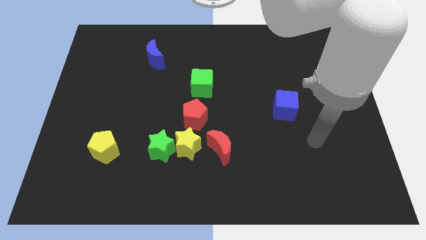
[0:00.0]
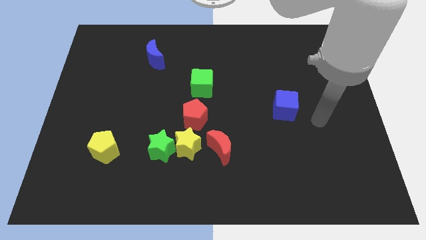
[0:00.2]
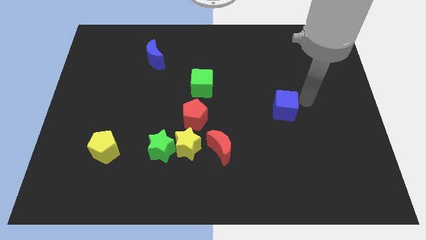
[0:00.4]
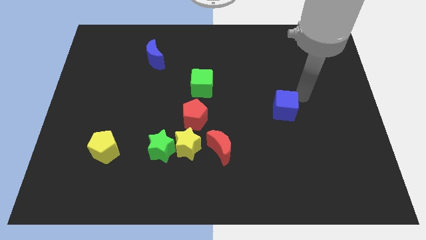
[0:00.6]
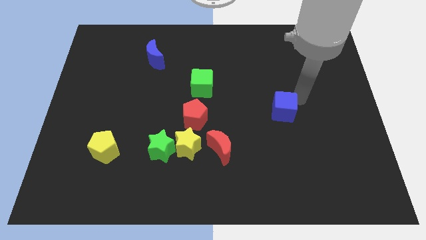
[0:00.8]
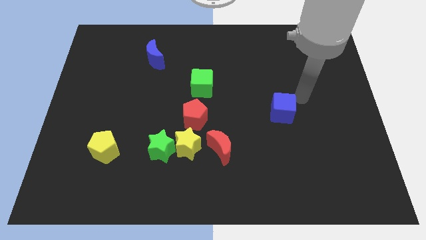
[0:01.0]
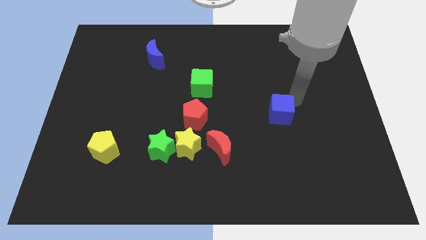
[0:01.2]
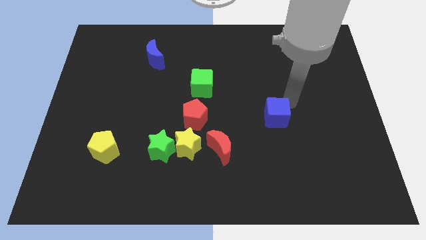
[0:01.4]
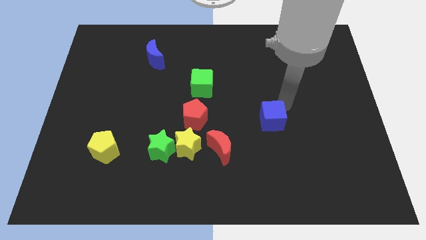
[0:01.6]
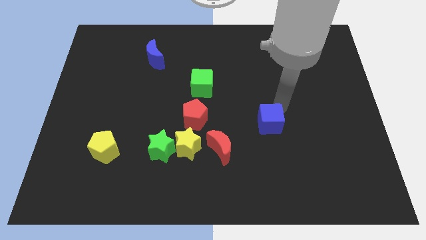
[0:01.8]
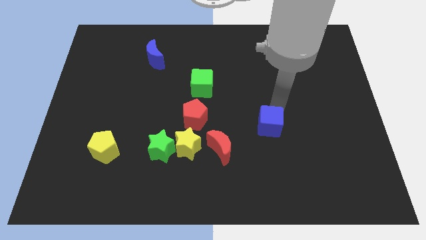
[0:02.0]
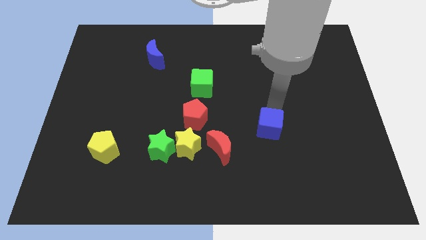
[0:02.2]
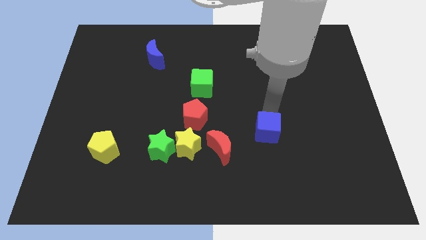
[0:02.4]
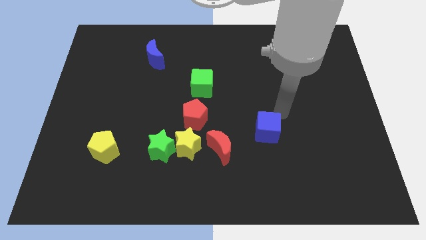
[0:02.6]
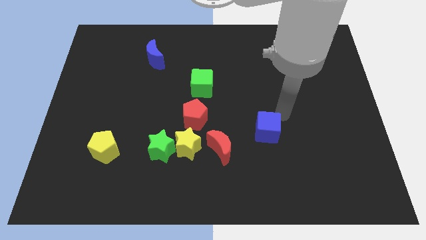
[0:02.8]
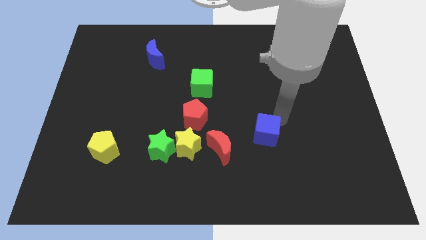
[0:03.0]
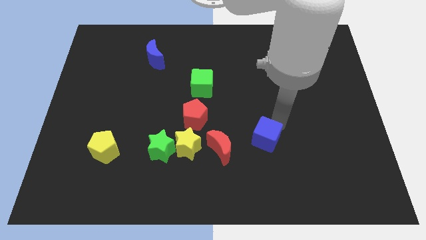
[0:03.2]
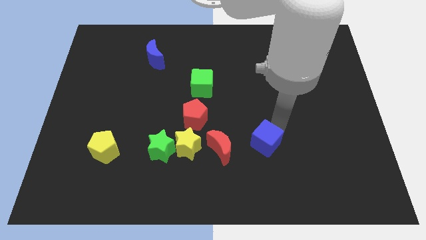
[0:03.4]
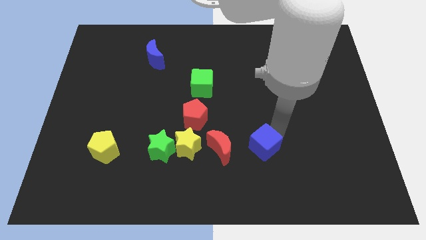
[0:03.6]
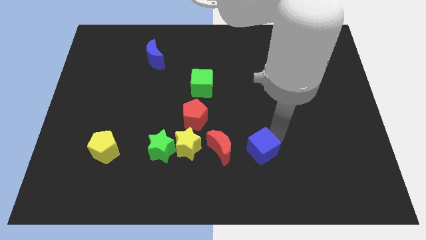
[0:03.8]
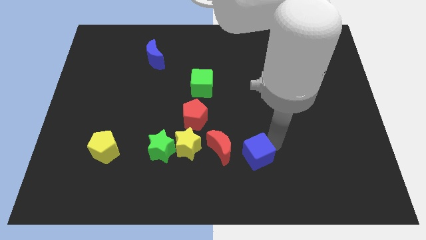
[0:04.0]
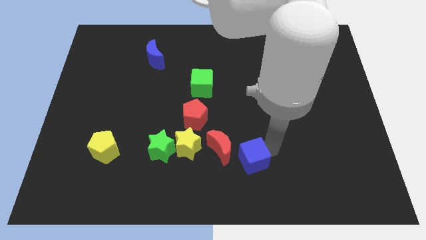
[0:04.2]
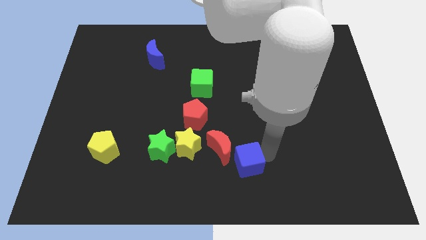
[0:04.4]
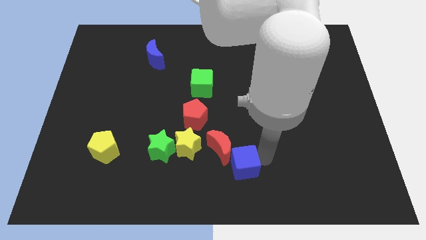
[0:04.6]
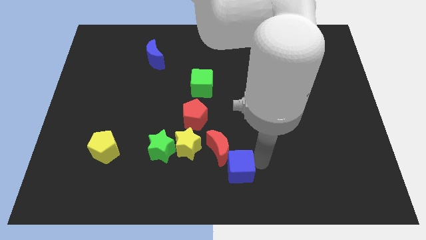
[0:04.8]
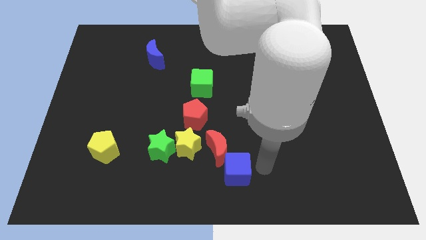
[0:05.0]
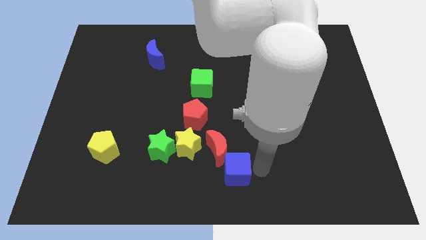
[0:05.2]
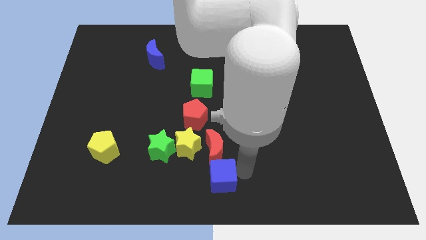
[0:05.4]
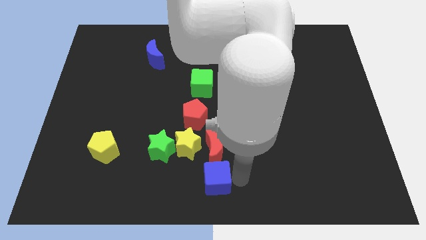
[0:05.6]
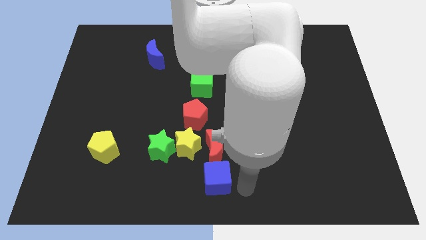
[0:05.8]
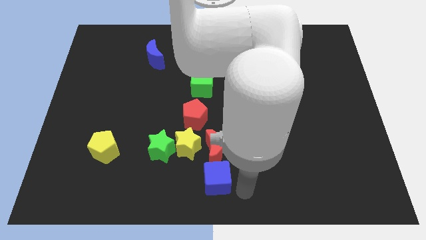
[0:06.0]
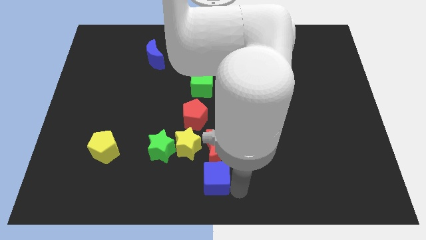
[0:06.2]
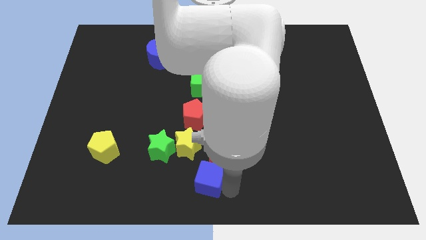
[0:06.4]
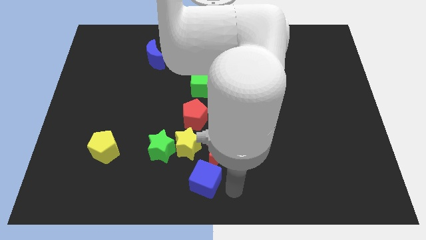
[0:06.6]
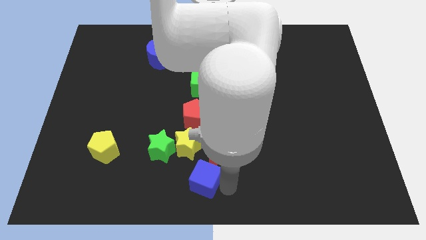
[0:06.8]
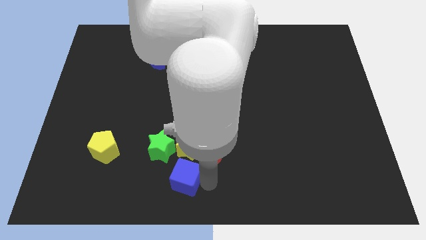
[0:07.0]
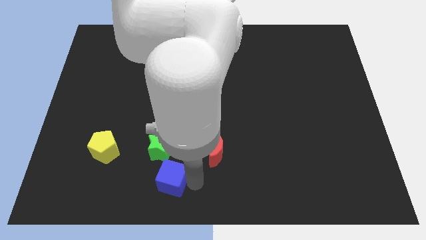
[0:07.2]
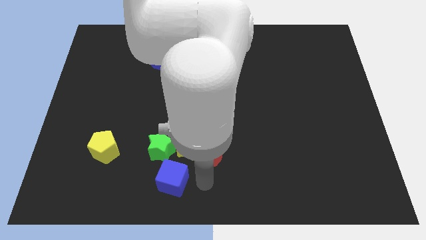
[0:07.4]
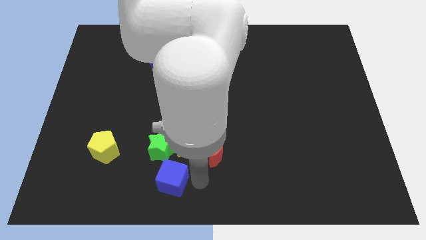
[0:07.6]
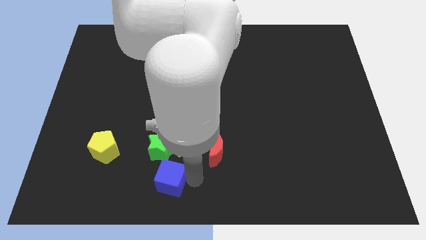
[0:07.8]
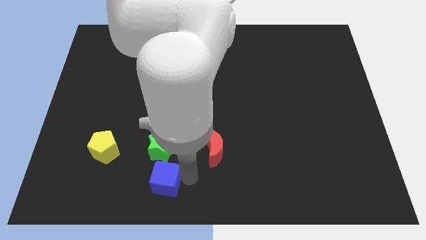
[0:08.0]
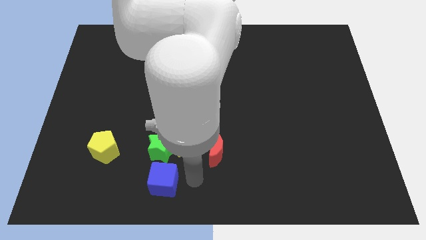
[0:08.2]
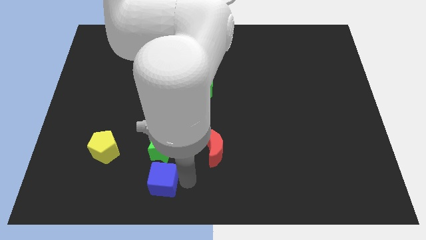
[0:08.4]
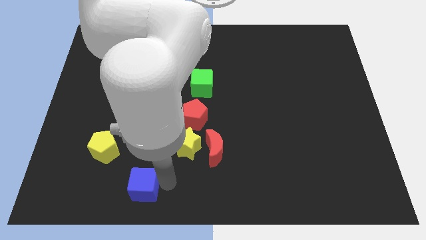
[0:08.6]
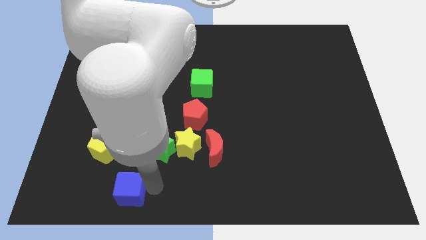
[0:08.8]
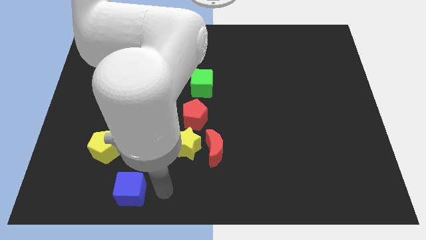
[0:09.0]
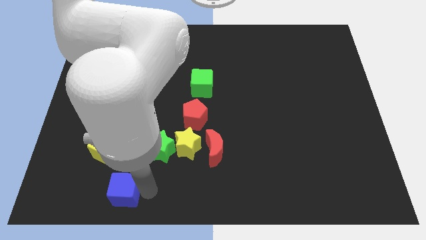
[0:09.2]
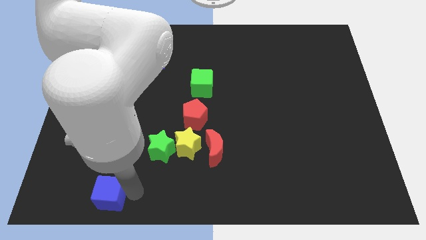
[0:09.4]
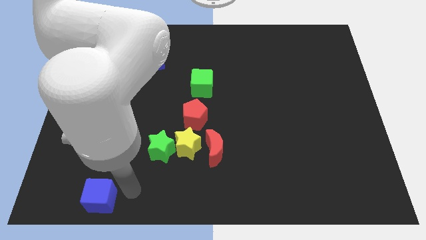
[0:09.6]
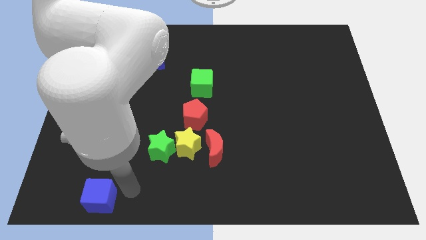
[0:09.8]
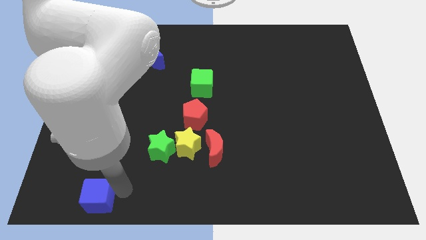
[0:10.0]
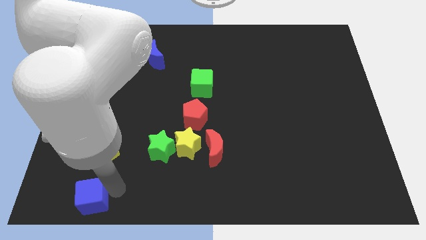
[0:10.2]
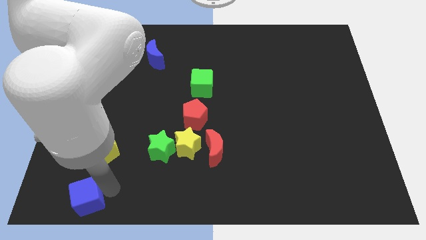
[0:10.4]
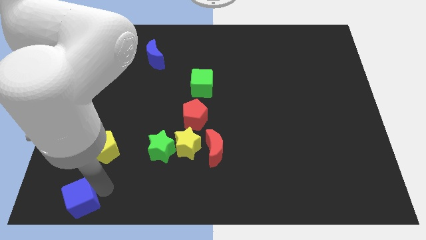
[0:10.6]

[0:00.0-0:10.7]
slide the blue cube to the lower left corner

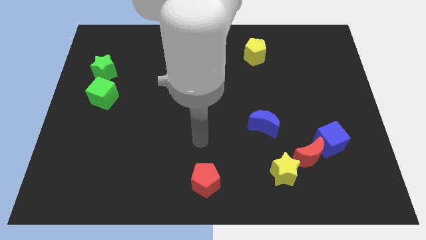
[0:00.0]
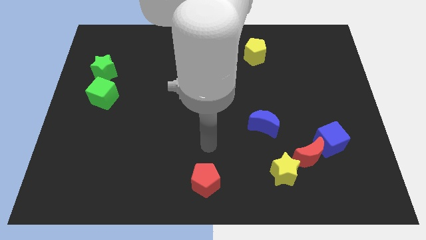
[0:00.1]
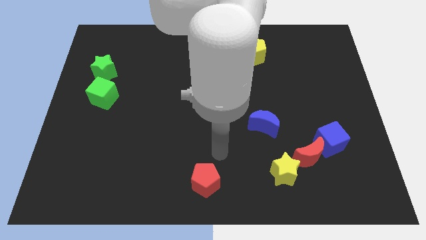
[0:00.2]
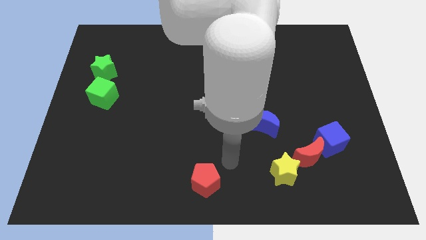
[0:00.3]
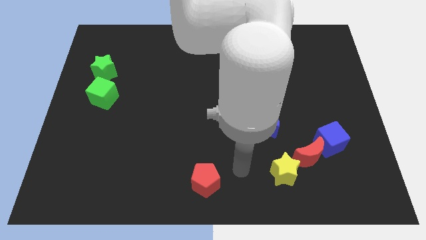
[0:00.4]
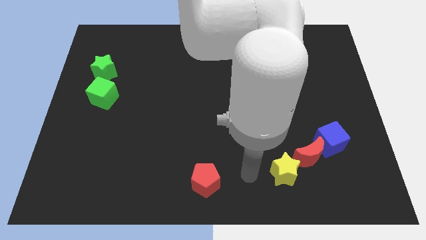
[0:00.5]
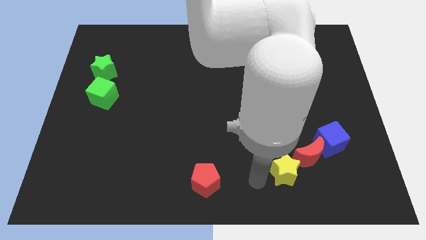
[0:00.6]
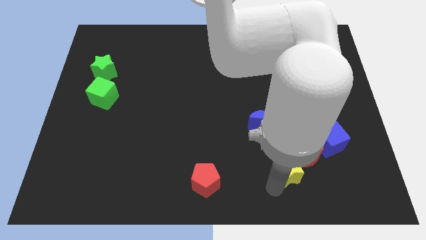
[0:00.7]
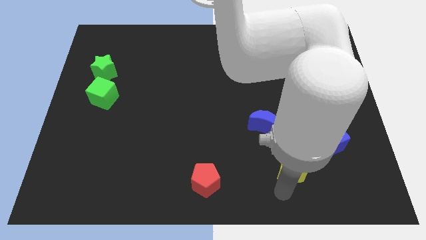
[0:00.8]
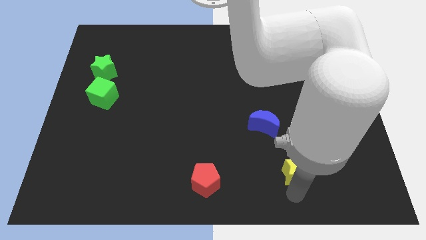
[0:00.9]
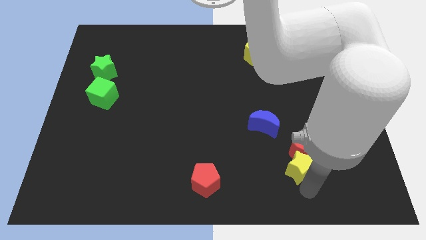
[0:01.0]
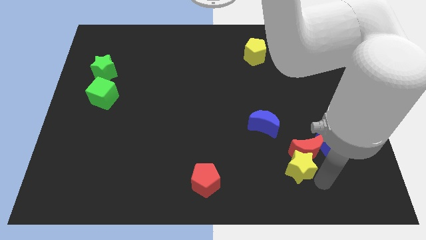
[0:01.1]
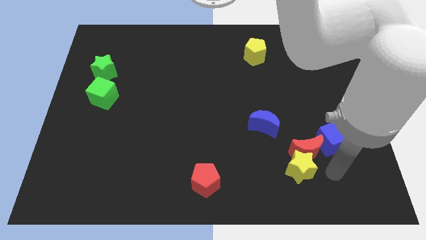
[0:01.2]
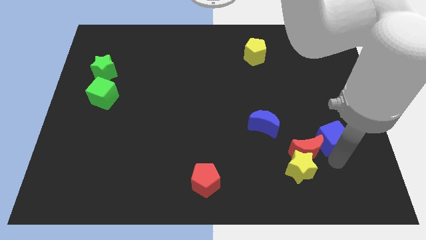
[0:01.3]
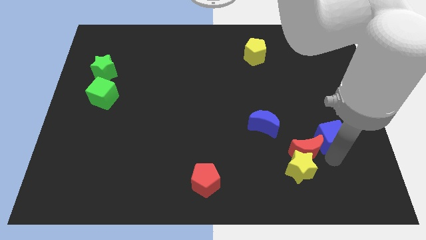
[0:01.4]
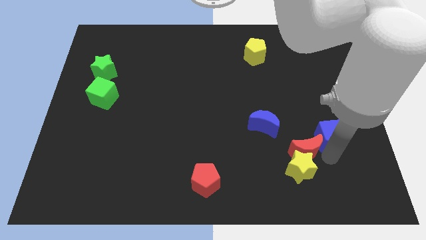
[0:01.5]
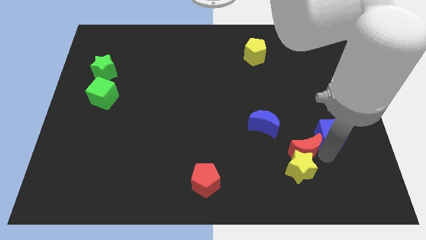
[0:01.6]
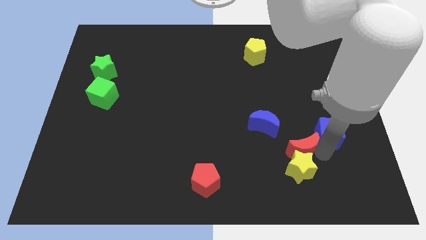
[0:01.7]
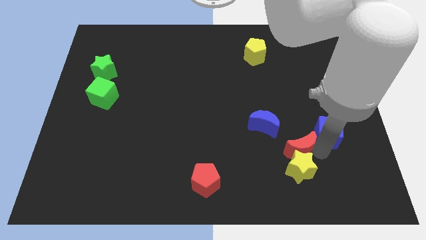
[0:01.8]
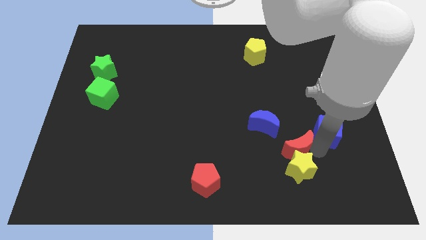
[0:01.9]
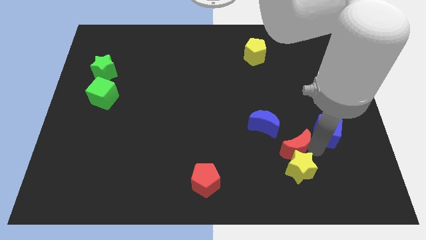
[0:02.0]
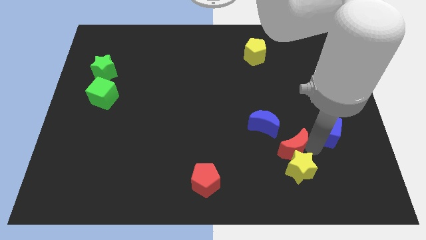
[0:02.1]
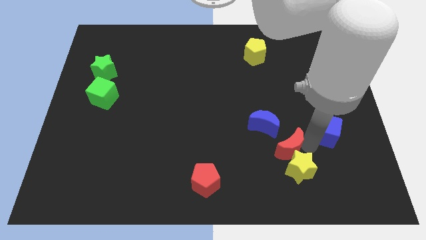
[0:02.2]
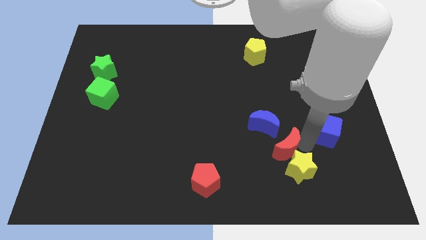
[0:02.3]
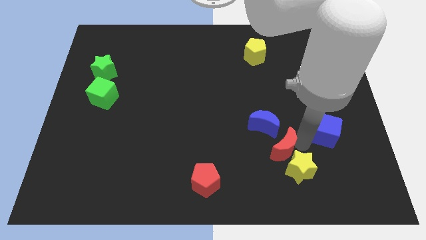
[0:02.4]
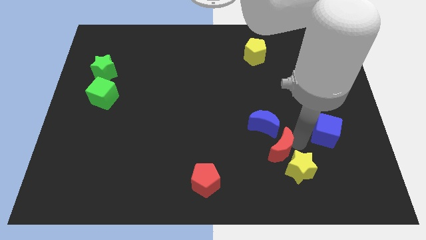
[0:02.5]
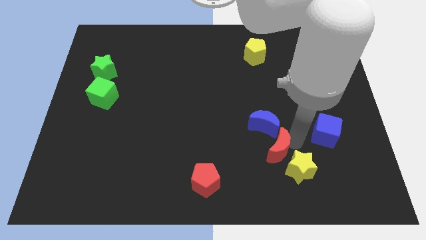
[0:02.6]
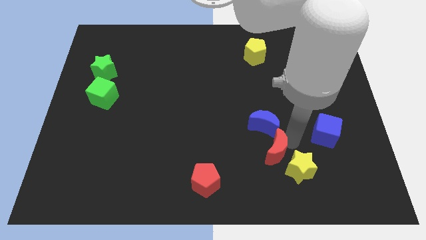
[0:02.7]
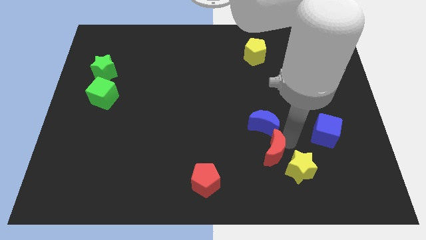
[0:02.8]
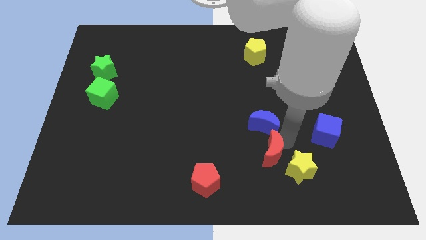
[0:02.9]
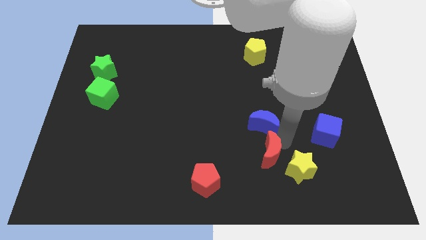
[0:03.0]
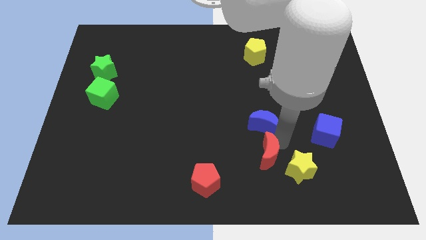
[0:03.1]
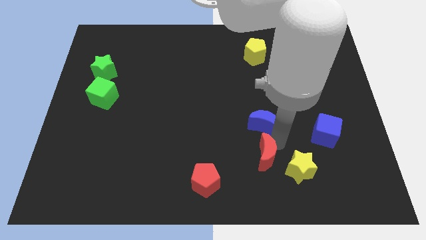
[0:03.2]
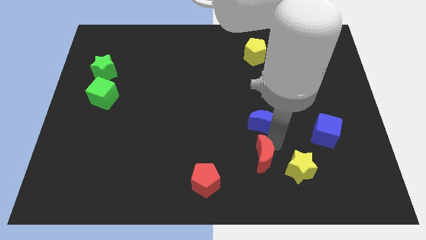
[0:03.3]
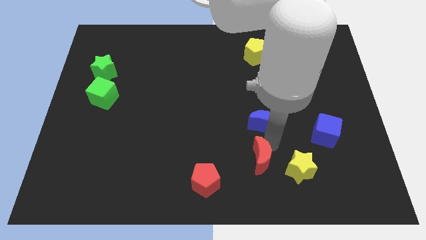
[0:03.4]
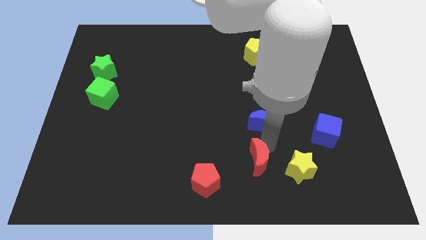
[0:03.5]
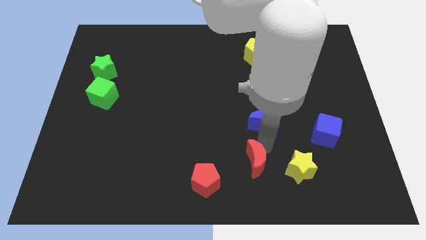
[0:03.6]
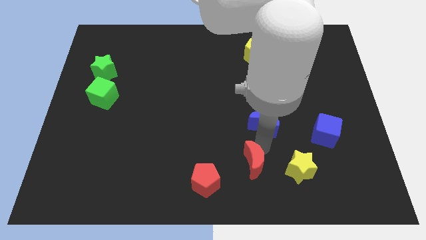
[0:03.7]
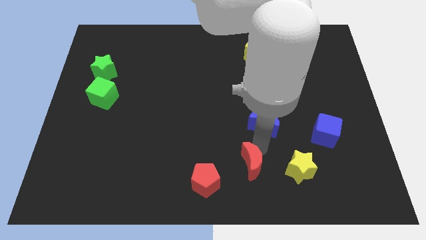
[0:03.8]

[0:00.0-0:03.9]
slide the red moon to the bottom
